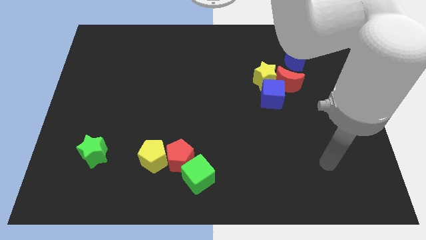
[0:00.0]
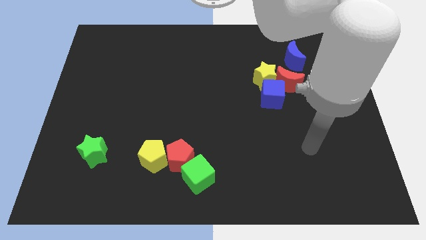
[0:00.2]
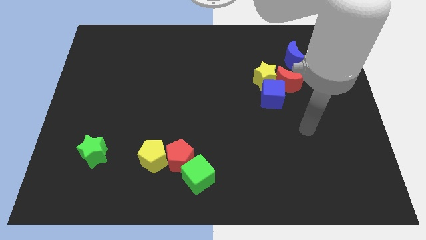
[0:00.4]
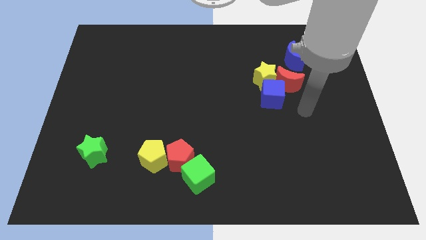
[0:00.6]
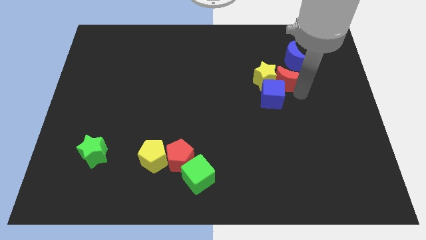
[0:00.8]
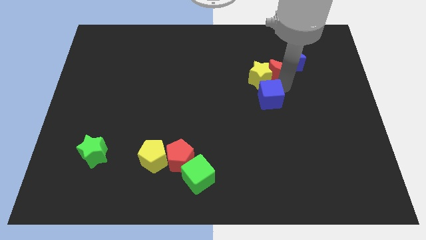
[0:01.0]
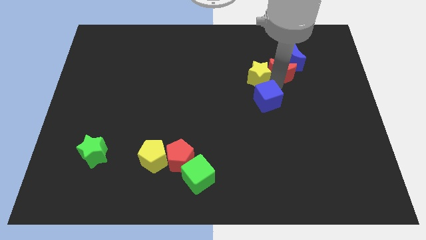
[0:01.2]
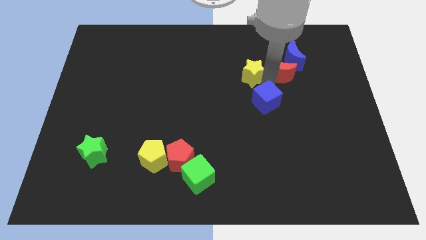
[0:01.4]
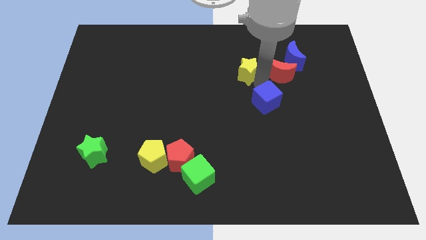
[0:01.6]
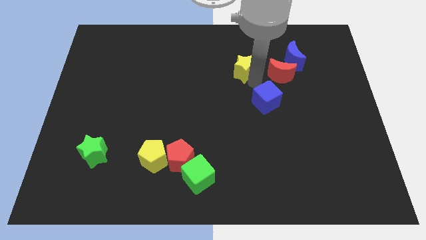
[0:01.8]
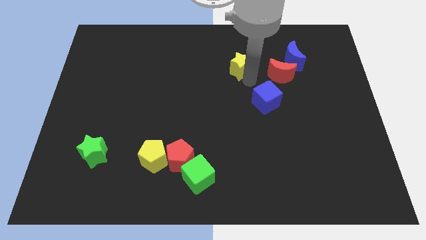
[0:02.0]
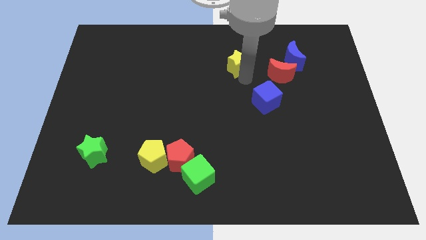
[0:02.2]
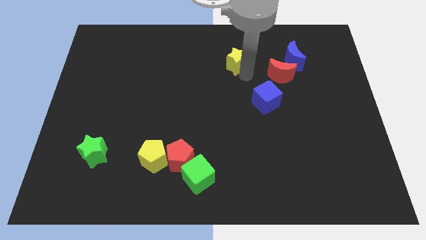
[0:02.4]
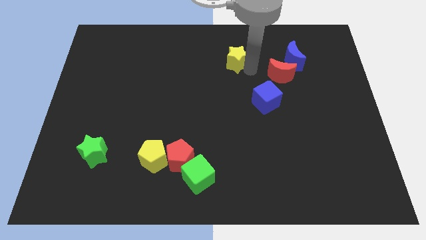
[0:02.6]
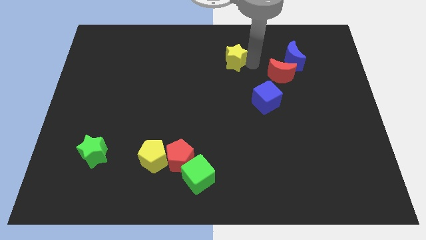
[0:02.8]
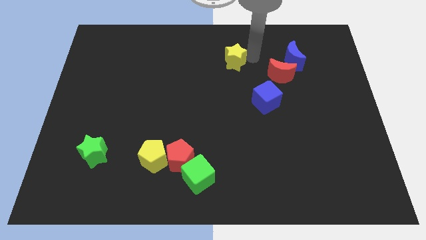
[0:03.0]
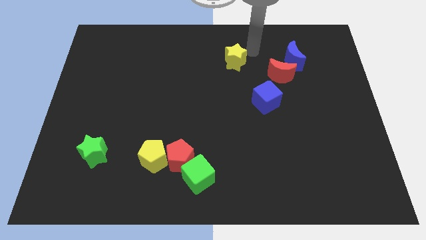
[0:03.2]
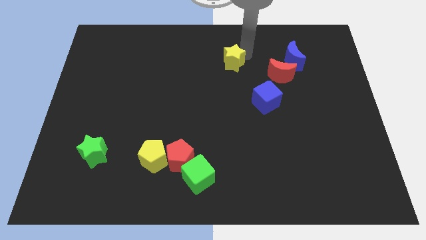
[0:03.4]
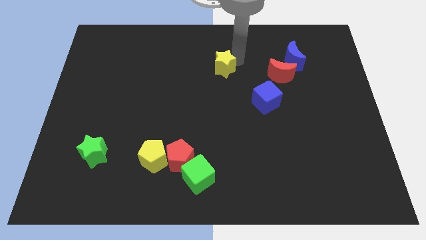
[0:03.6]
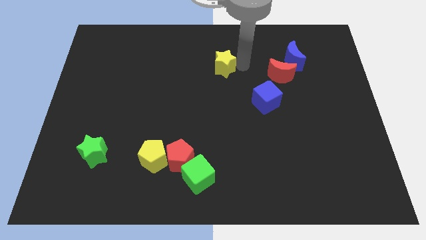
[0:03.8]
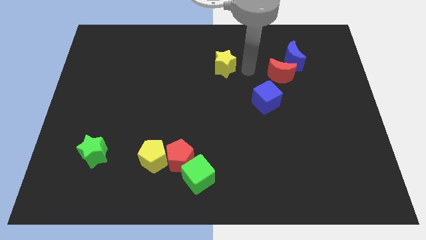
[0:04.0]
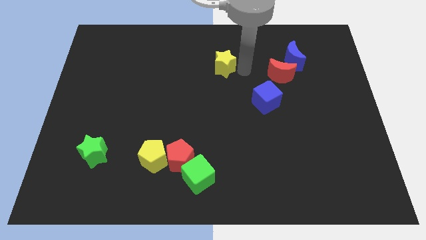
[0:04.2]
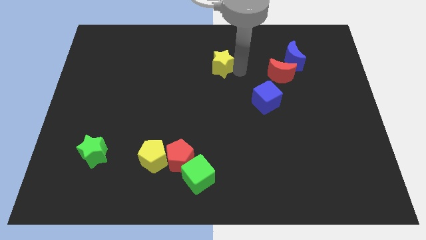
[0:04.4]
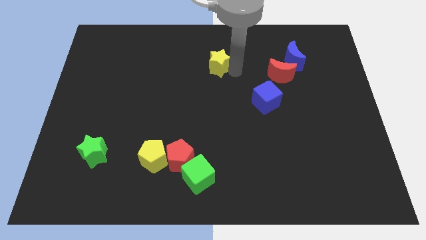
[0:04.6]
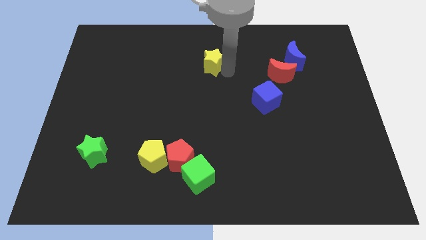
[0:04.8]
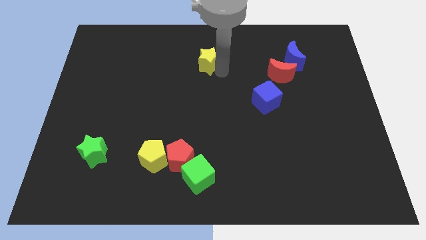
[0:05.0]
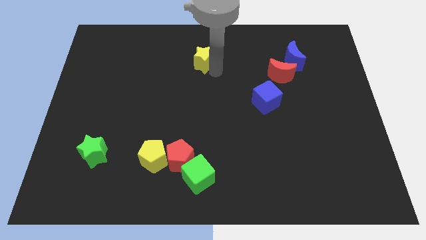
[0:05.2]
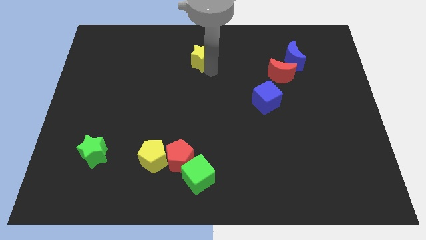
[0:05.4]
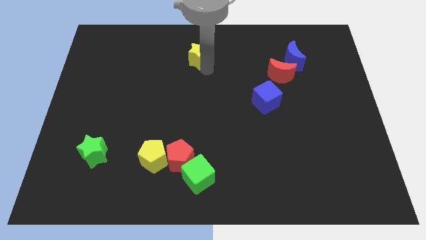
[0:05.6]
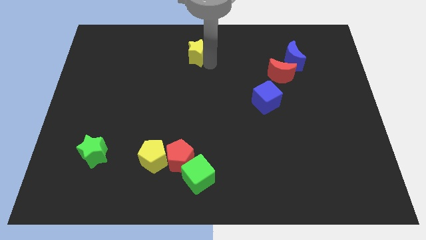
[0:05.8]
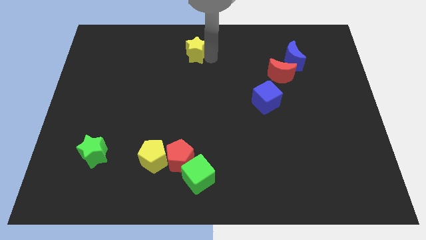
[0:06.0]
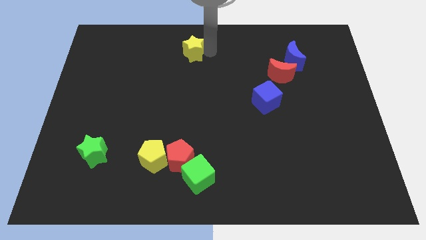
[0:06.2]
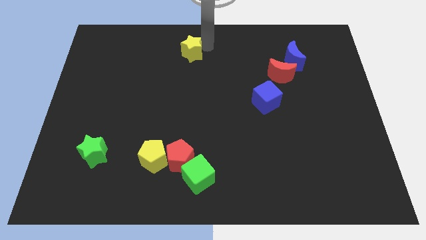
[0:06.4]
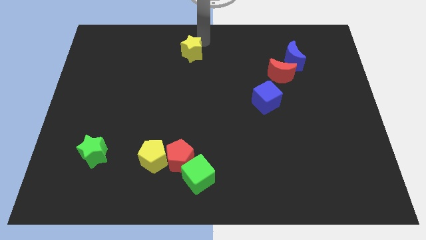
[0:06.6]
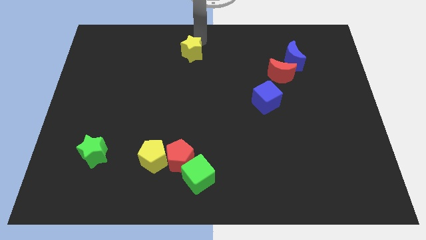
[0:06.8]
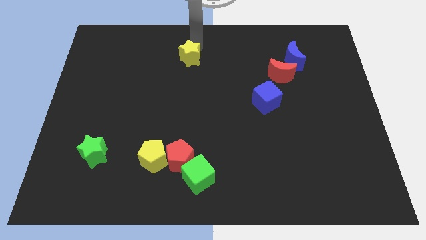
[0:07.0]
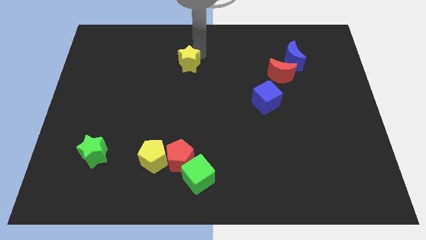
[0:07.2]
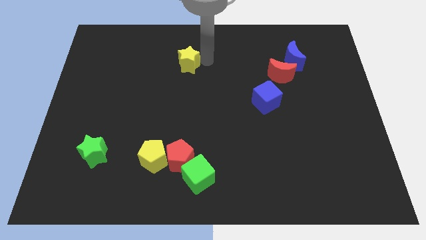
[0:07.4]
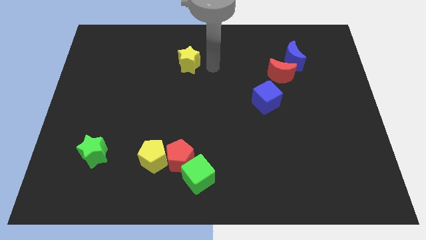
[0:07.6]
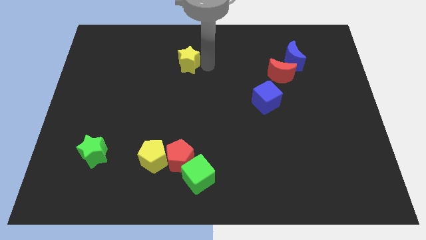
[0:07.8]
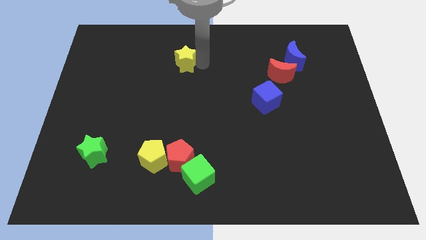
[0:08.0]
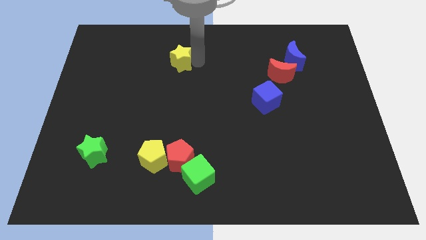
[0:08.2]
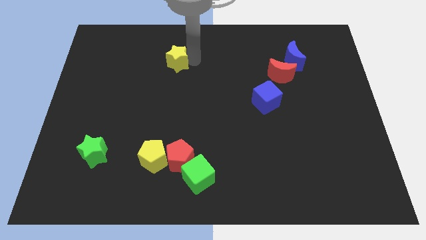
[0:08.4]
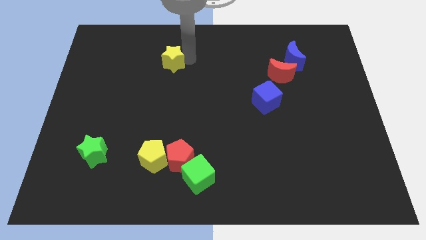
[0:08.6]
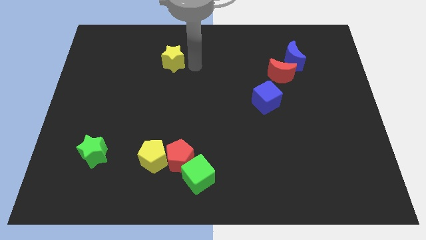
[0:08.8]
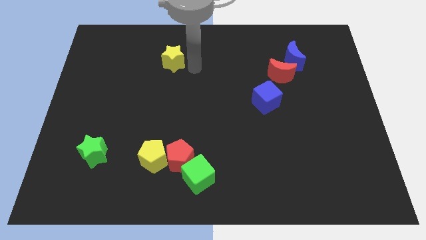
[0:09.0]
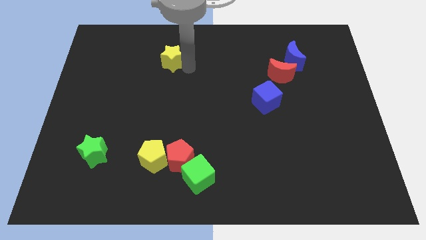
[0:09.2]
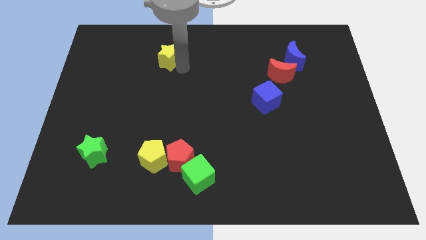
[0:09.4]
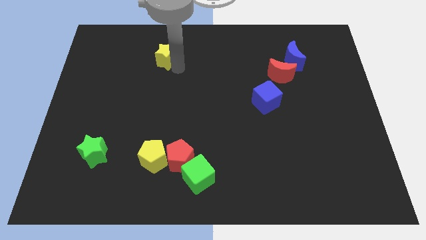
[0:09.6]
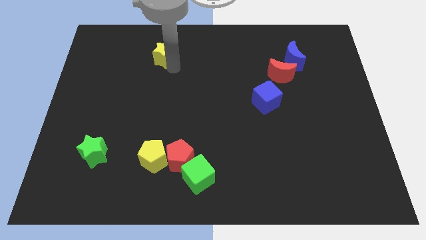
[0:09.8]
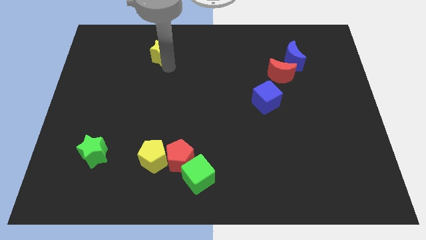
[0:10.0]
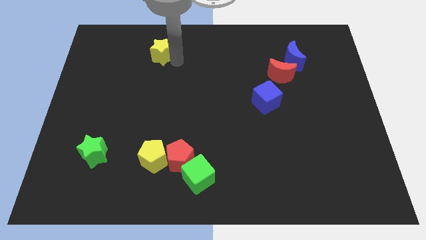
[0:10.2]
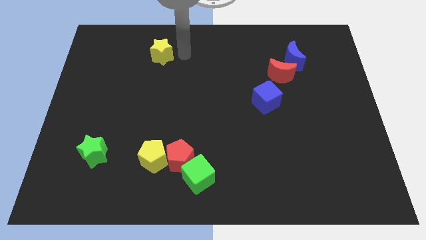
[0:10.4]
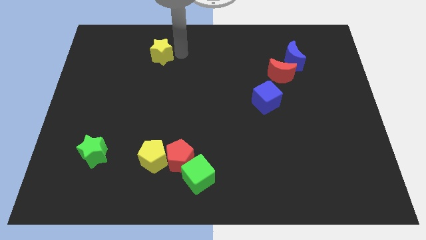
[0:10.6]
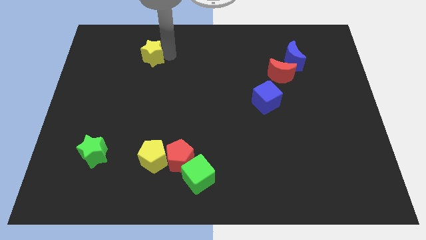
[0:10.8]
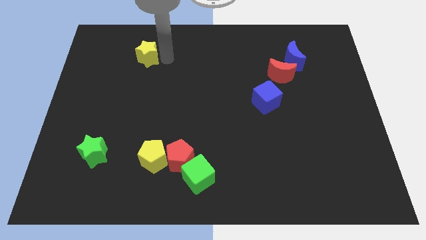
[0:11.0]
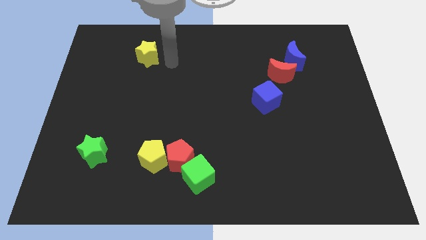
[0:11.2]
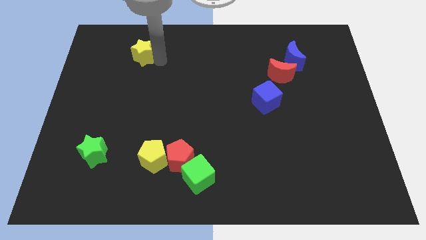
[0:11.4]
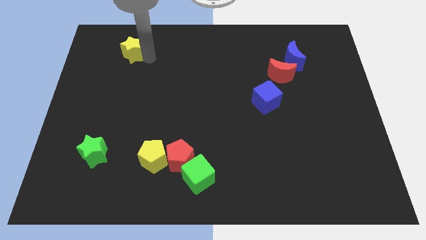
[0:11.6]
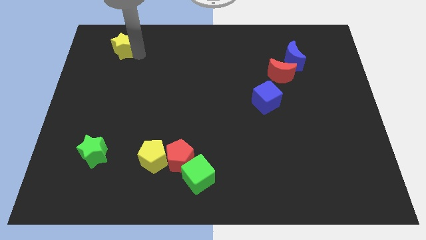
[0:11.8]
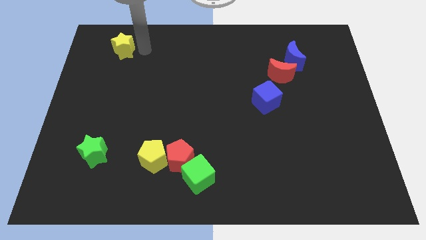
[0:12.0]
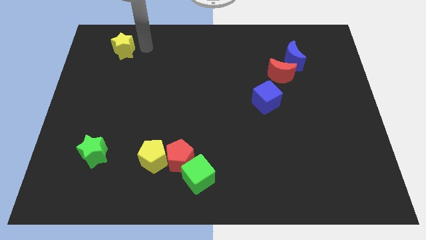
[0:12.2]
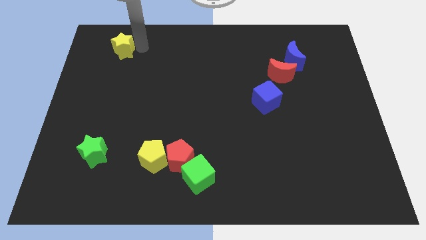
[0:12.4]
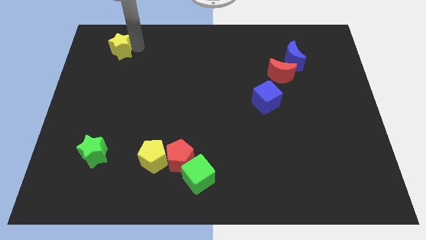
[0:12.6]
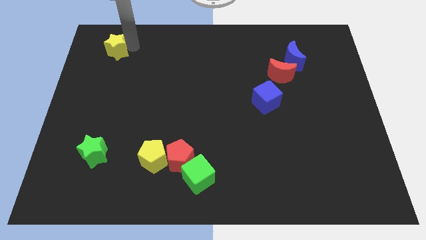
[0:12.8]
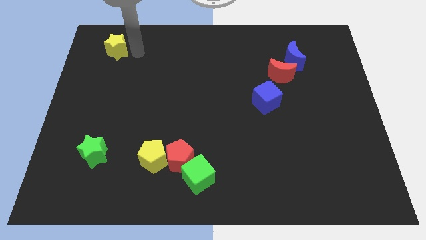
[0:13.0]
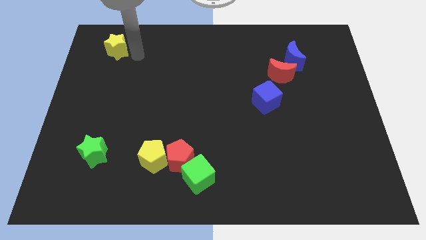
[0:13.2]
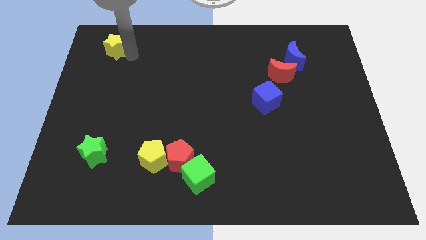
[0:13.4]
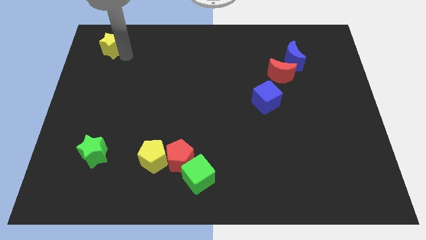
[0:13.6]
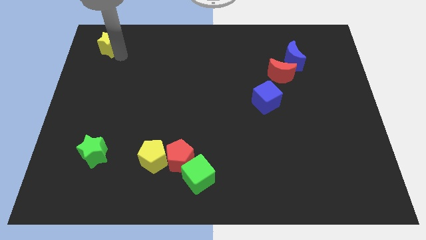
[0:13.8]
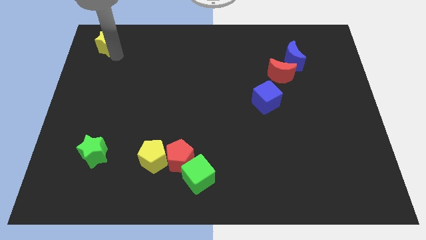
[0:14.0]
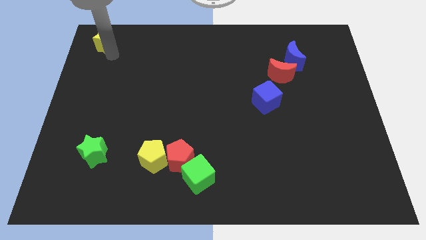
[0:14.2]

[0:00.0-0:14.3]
push the yellow star to the top left of the board

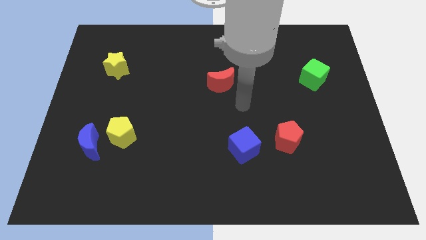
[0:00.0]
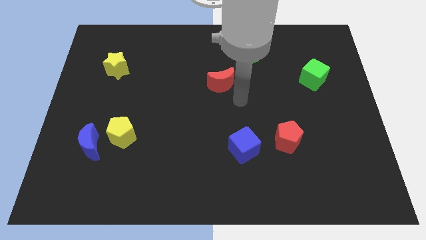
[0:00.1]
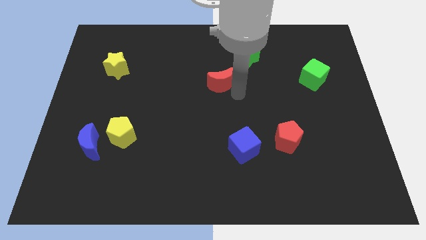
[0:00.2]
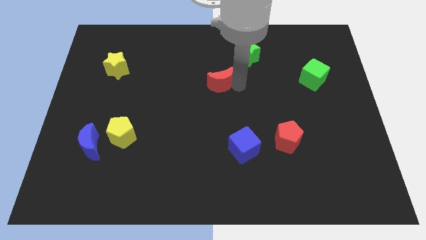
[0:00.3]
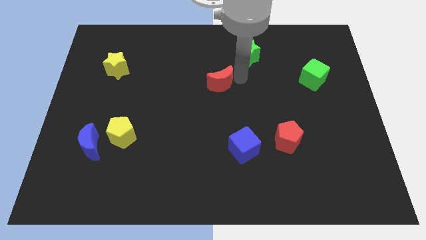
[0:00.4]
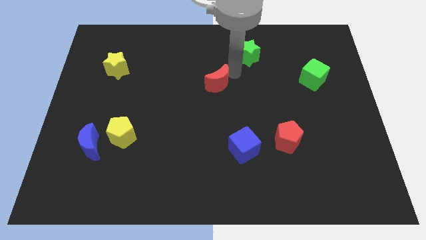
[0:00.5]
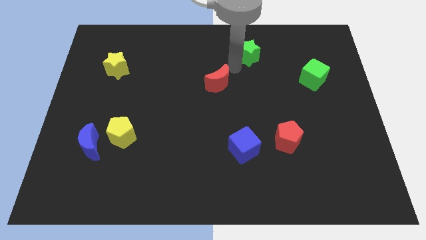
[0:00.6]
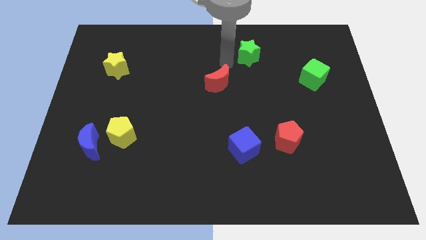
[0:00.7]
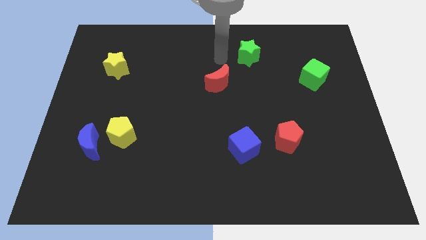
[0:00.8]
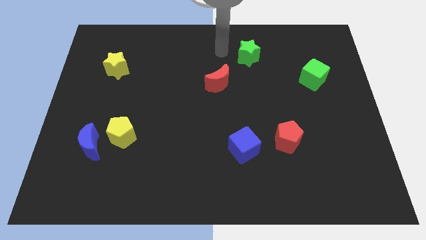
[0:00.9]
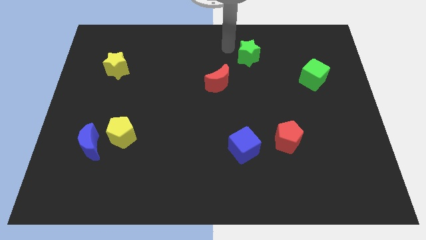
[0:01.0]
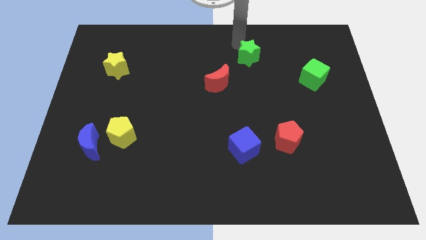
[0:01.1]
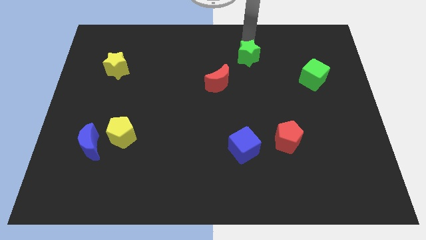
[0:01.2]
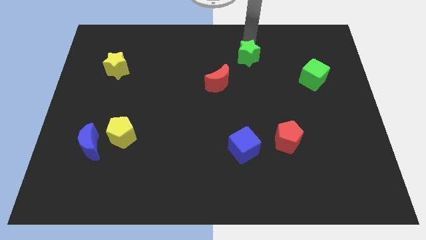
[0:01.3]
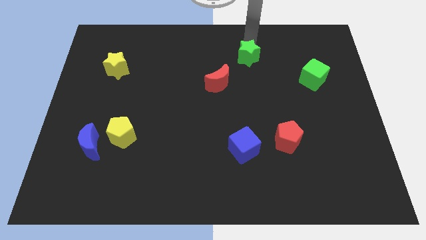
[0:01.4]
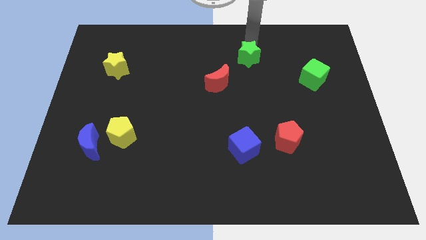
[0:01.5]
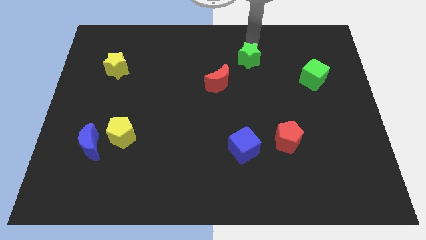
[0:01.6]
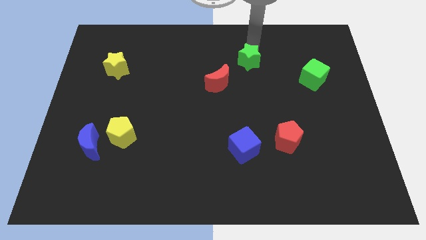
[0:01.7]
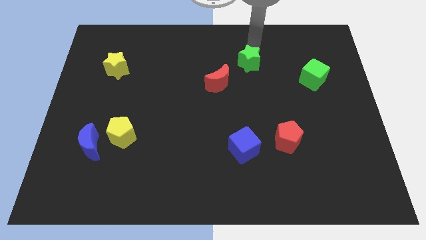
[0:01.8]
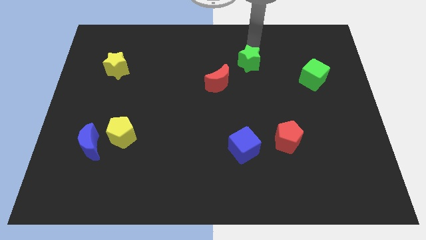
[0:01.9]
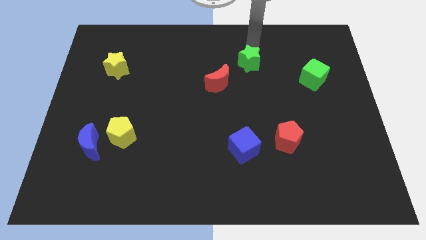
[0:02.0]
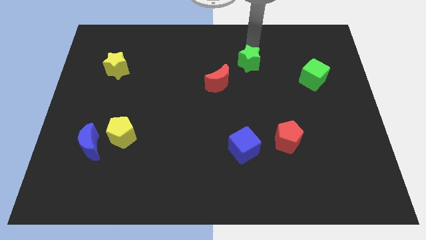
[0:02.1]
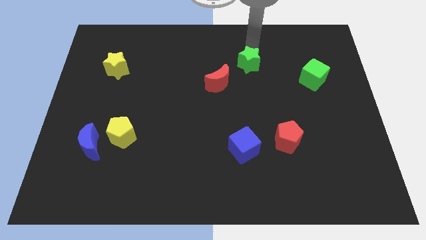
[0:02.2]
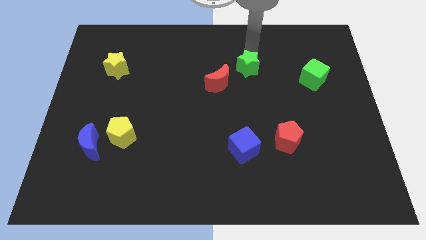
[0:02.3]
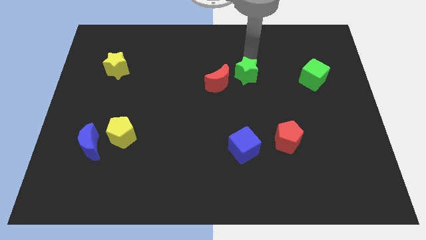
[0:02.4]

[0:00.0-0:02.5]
push the green star to the center of the board
